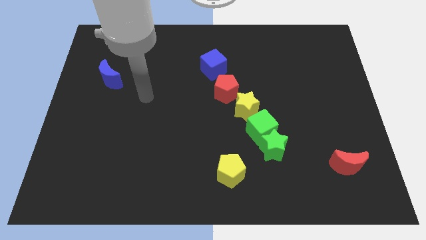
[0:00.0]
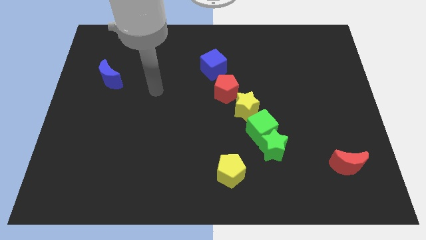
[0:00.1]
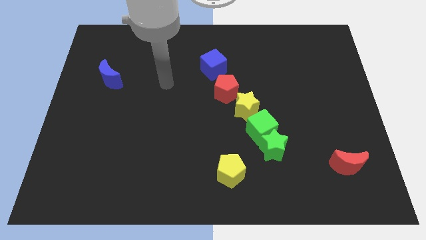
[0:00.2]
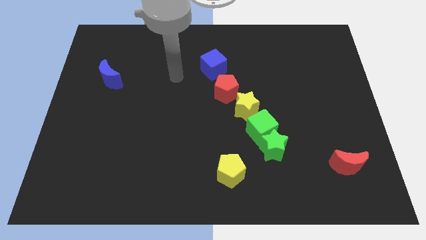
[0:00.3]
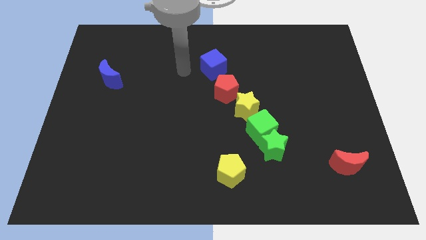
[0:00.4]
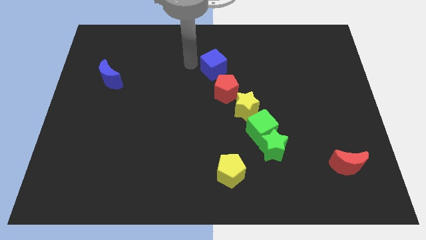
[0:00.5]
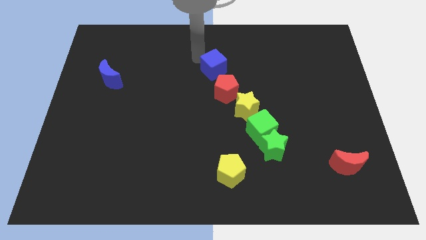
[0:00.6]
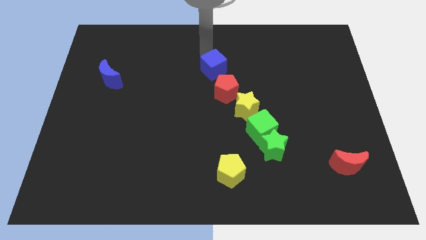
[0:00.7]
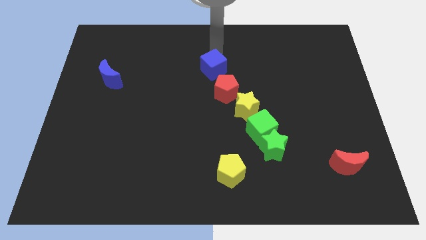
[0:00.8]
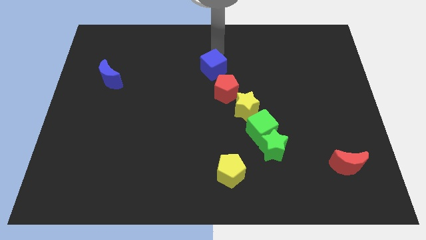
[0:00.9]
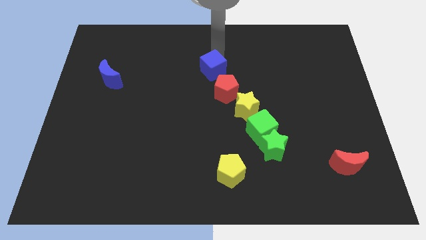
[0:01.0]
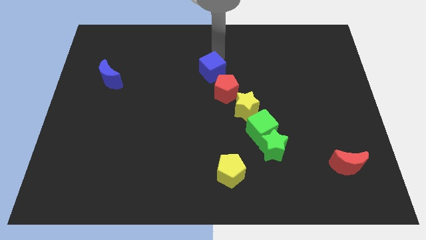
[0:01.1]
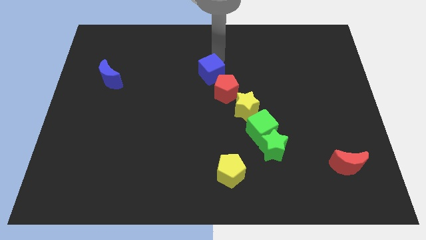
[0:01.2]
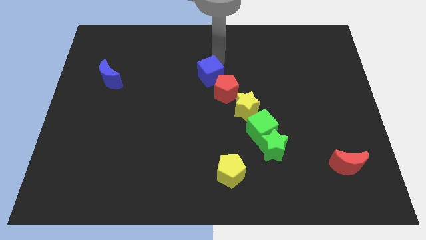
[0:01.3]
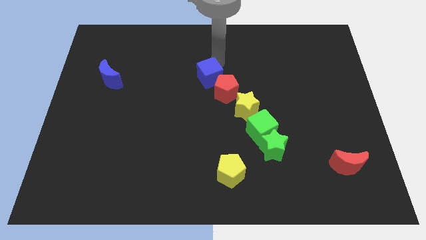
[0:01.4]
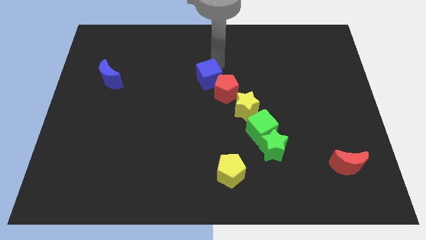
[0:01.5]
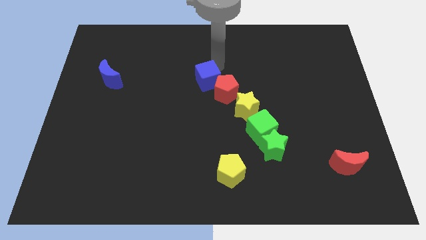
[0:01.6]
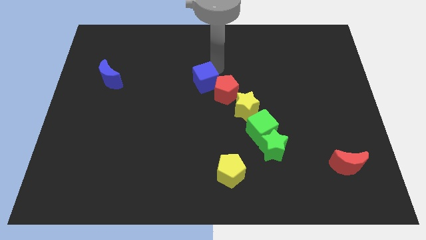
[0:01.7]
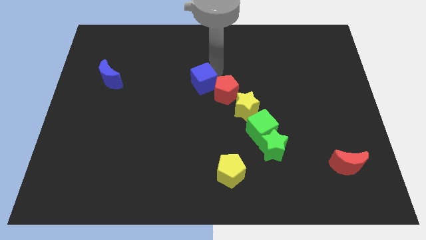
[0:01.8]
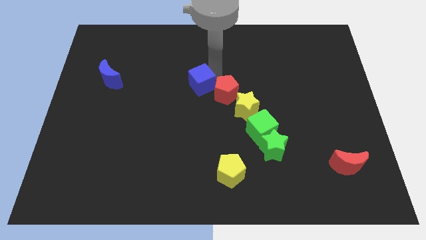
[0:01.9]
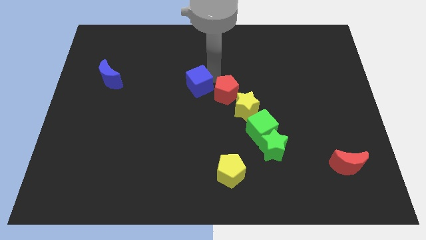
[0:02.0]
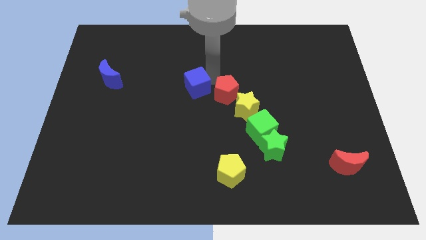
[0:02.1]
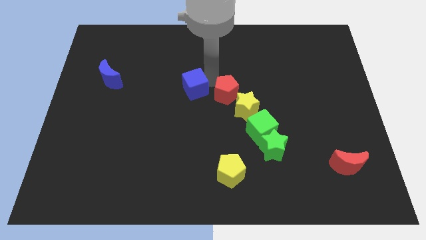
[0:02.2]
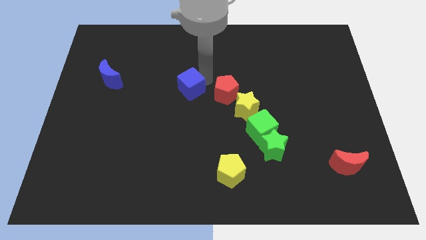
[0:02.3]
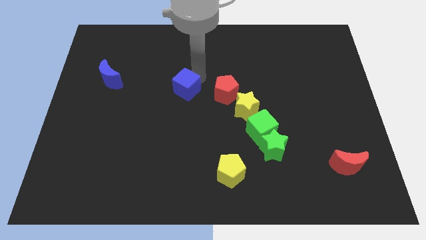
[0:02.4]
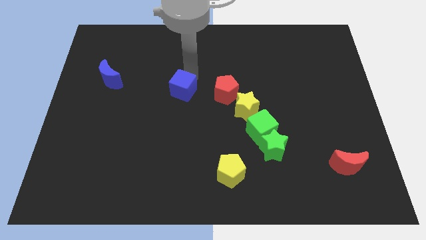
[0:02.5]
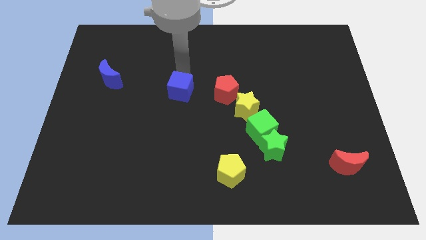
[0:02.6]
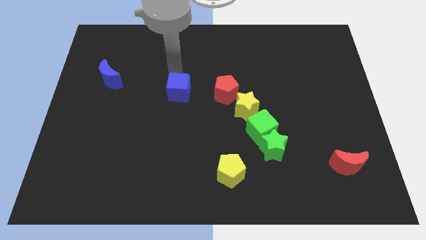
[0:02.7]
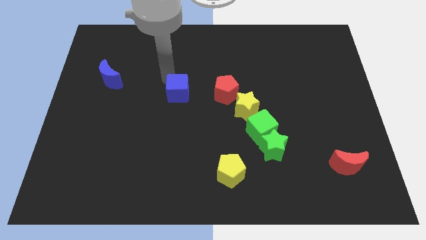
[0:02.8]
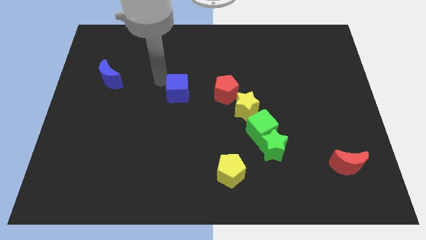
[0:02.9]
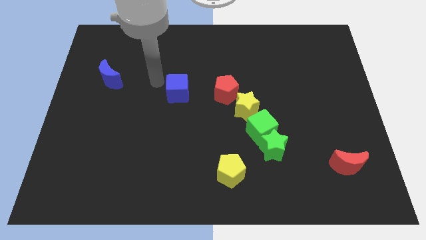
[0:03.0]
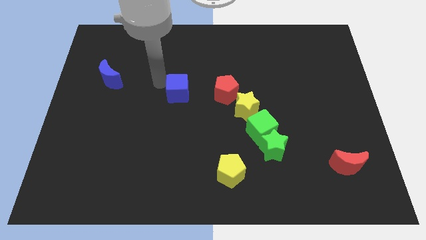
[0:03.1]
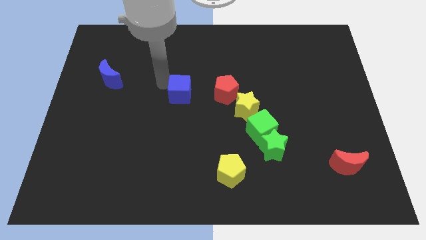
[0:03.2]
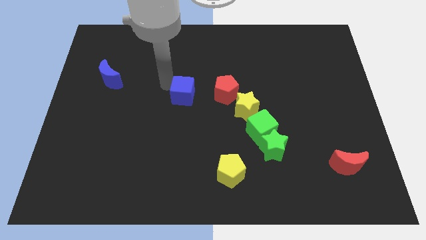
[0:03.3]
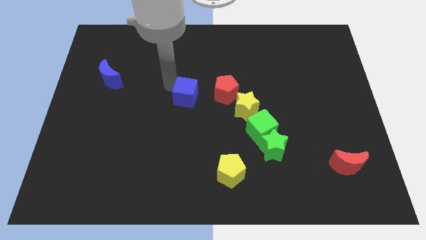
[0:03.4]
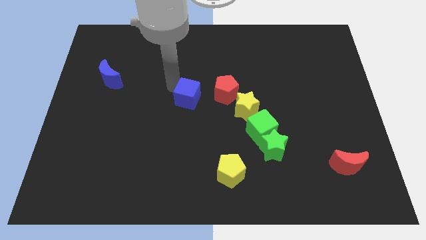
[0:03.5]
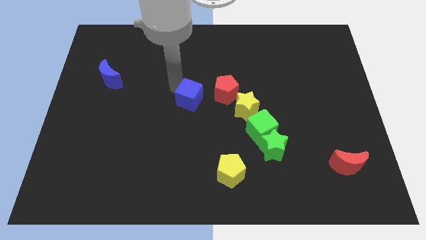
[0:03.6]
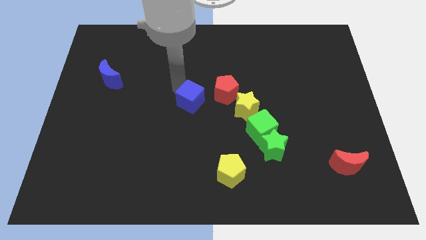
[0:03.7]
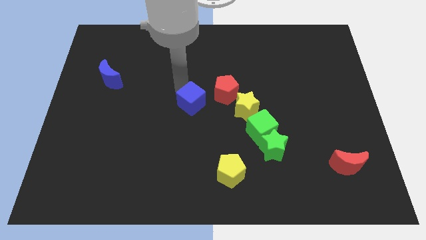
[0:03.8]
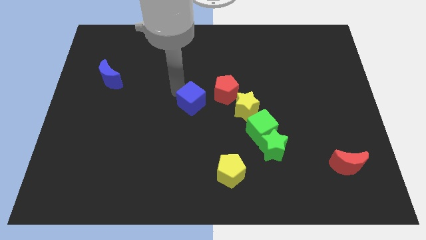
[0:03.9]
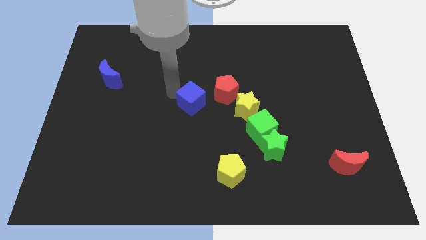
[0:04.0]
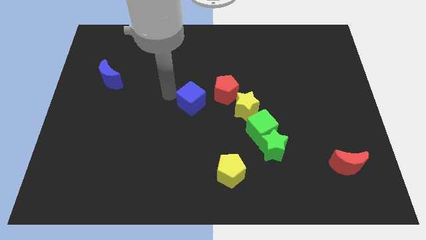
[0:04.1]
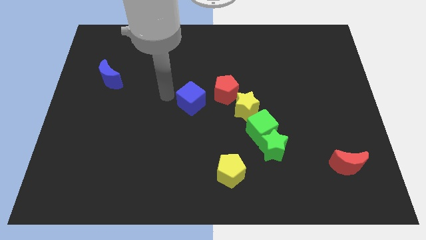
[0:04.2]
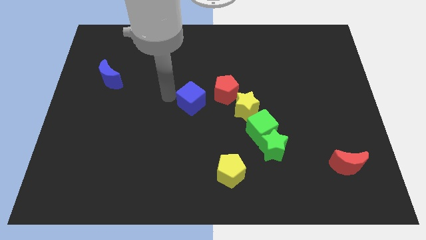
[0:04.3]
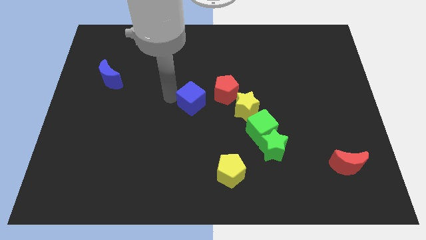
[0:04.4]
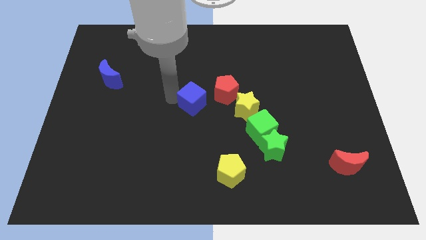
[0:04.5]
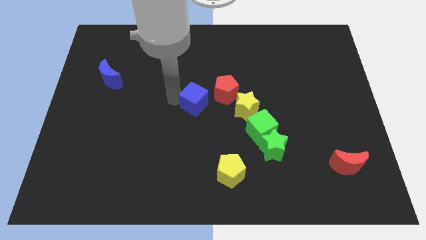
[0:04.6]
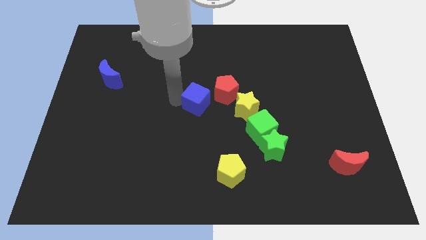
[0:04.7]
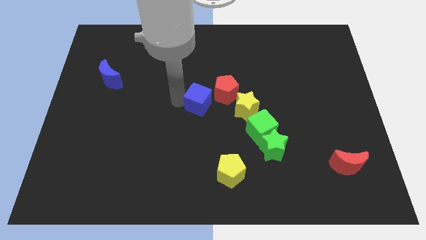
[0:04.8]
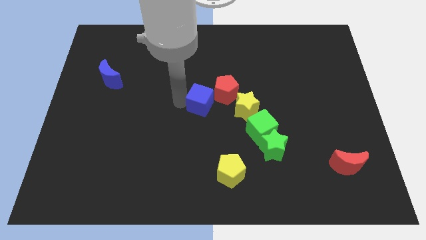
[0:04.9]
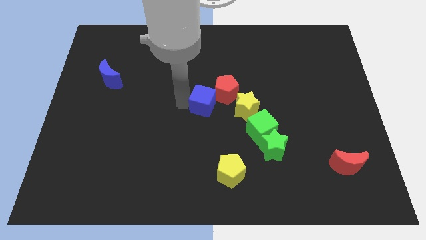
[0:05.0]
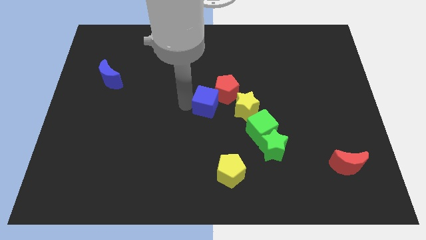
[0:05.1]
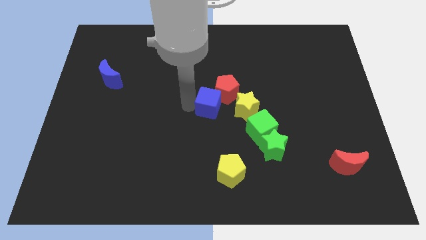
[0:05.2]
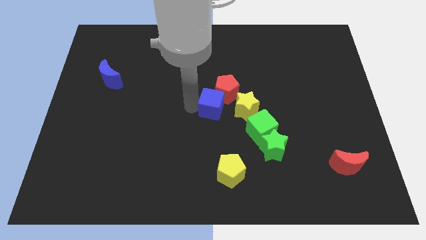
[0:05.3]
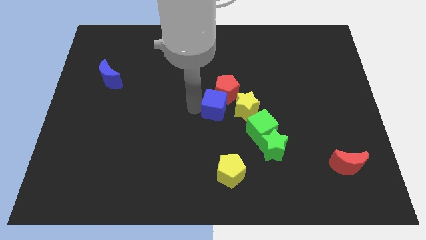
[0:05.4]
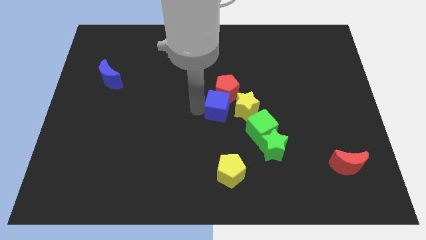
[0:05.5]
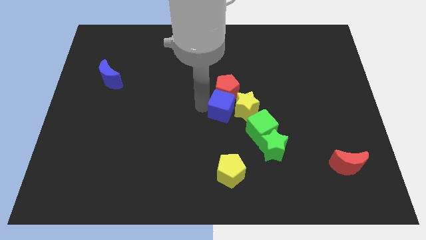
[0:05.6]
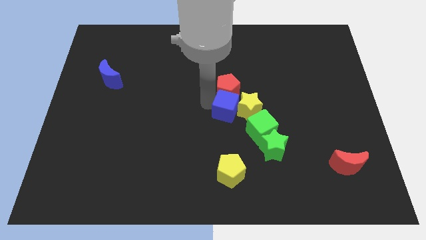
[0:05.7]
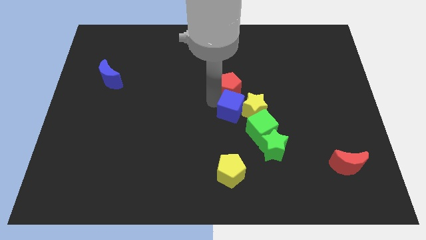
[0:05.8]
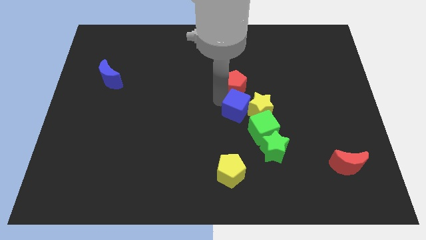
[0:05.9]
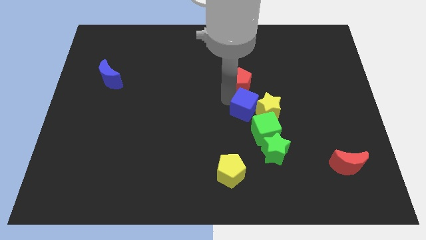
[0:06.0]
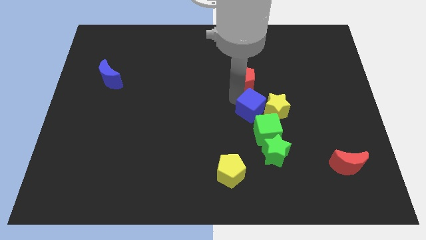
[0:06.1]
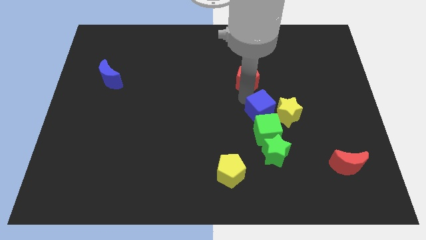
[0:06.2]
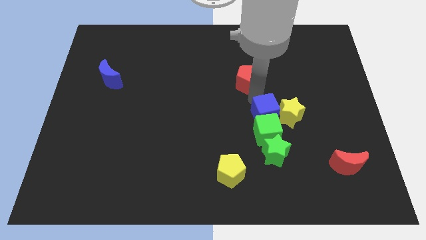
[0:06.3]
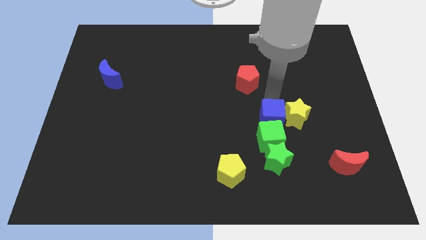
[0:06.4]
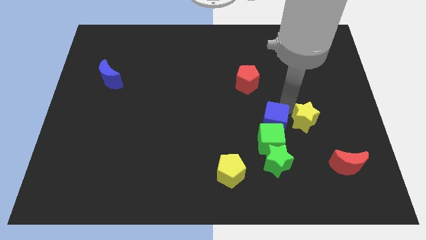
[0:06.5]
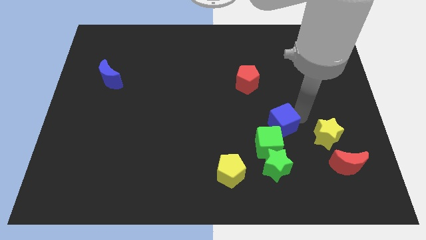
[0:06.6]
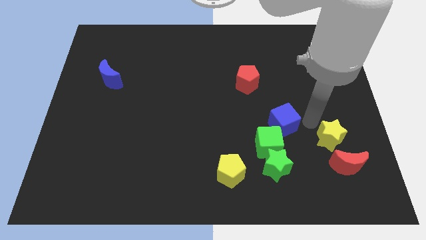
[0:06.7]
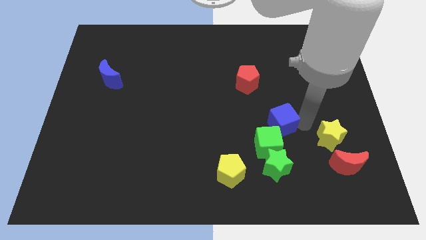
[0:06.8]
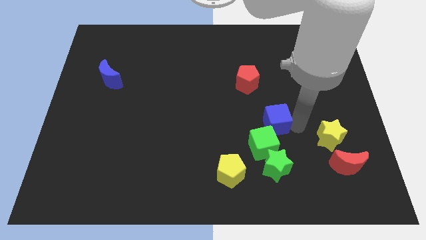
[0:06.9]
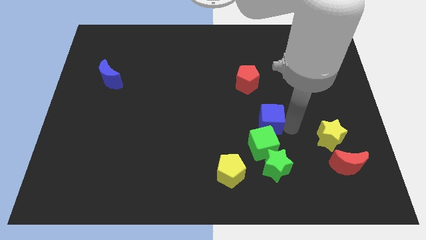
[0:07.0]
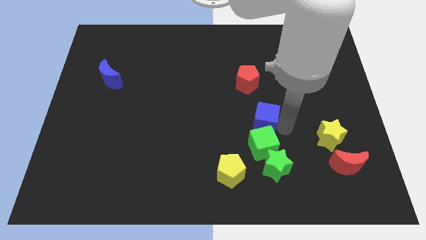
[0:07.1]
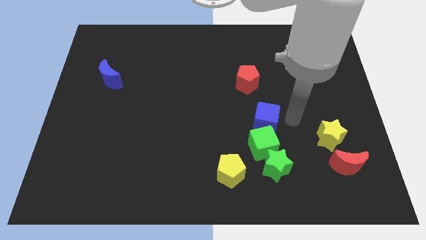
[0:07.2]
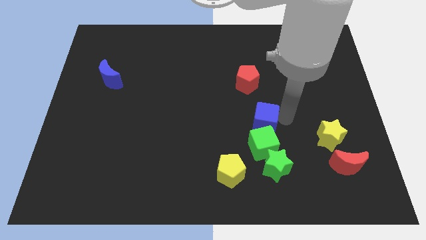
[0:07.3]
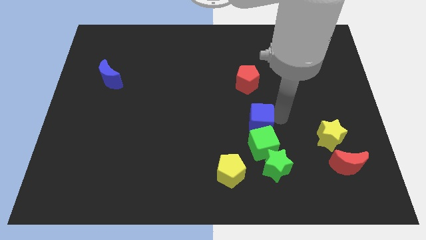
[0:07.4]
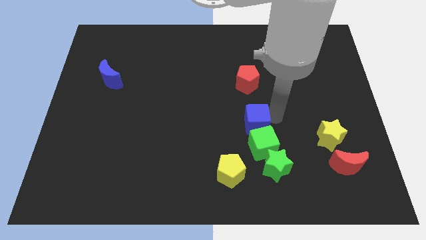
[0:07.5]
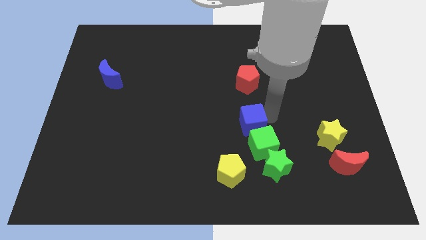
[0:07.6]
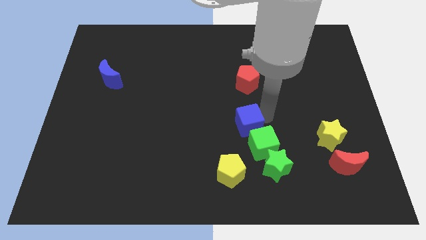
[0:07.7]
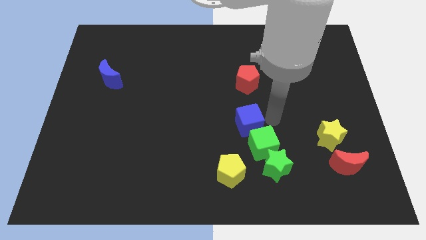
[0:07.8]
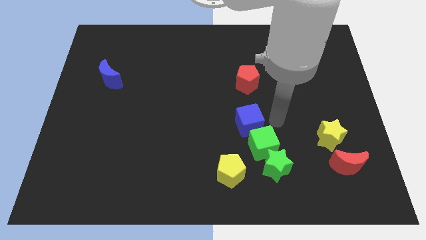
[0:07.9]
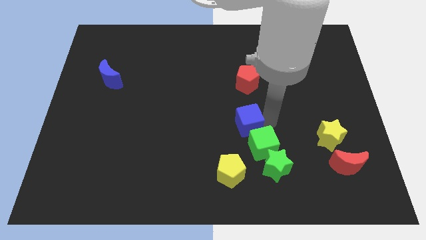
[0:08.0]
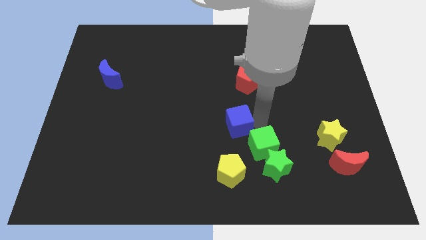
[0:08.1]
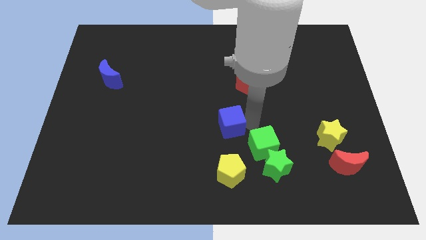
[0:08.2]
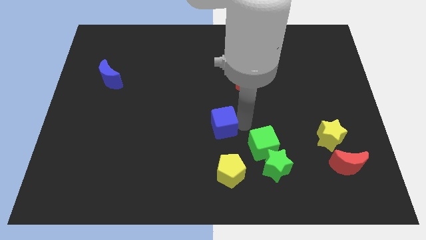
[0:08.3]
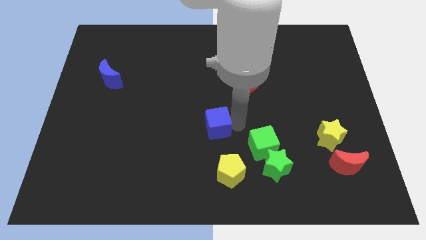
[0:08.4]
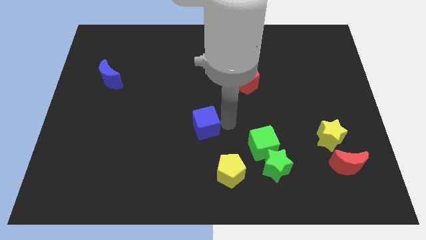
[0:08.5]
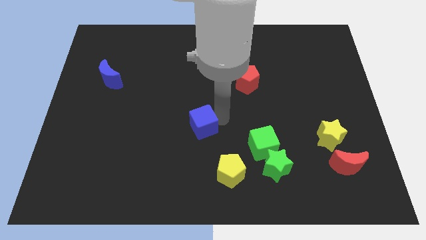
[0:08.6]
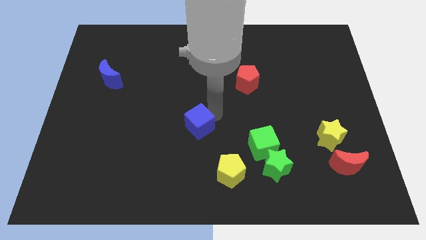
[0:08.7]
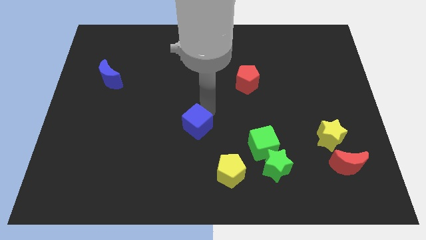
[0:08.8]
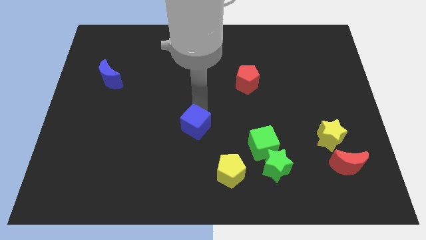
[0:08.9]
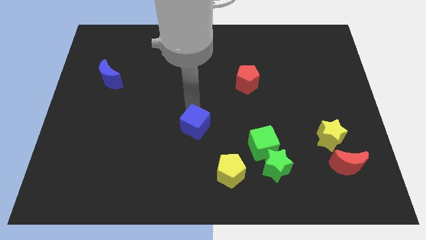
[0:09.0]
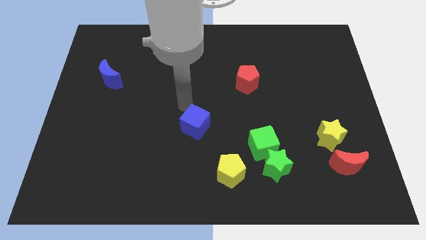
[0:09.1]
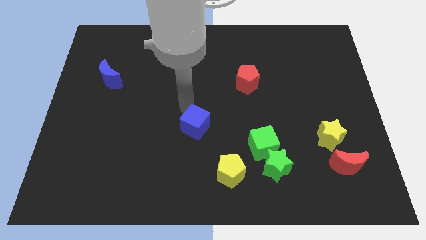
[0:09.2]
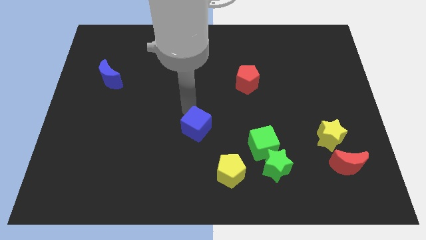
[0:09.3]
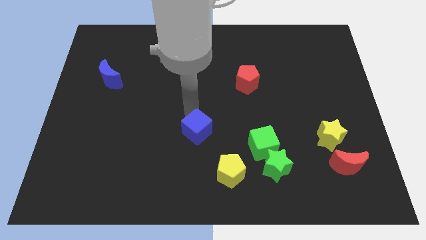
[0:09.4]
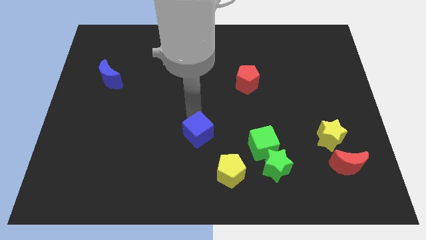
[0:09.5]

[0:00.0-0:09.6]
move the blue cube down
